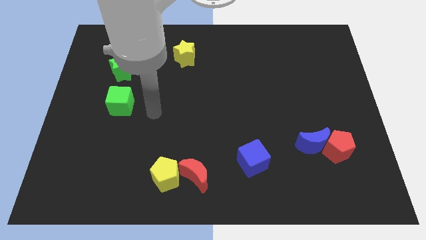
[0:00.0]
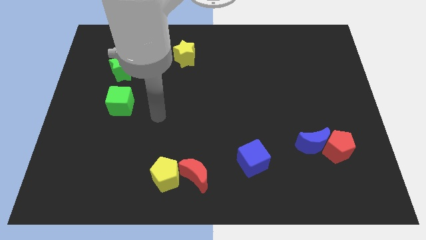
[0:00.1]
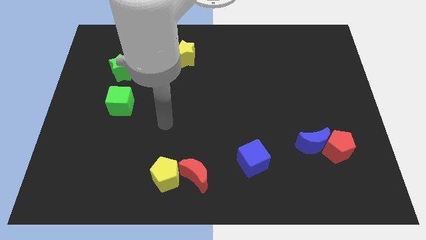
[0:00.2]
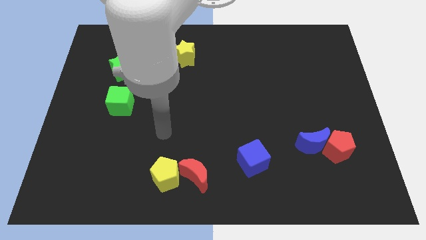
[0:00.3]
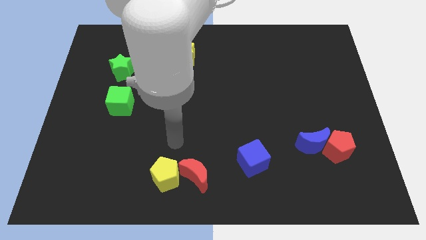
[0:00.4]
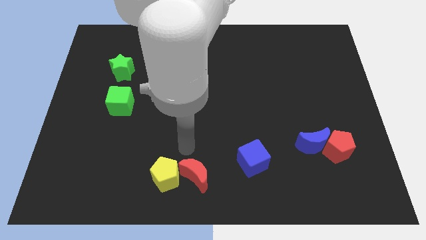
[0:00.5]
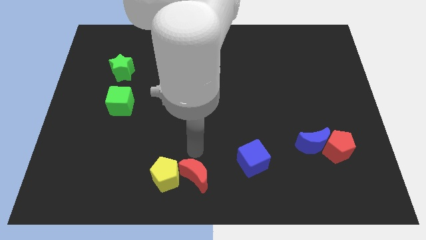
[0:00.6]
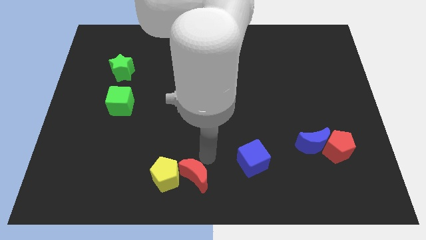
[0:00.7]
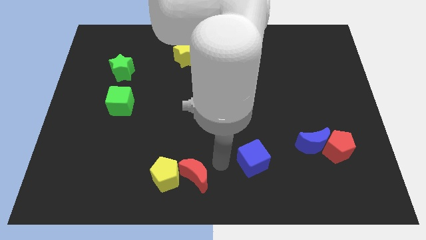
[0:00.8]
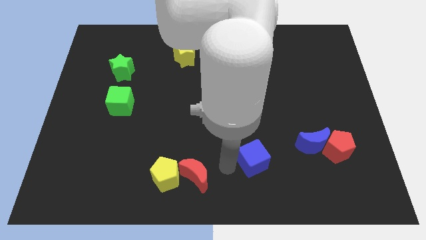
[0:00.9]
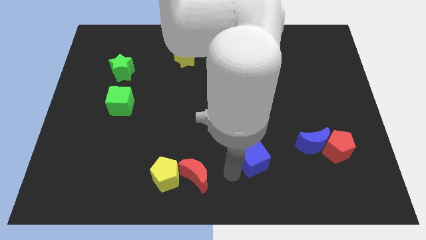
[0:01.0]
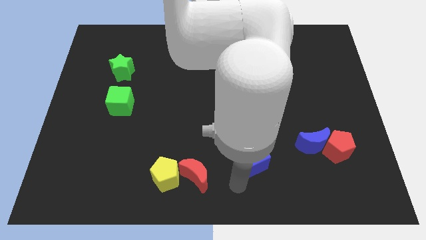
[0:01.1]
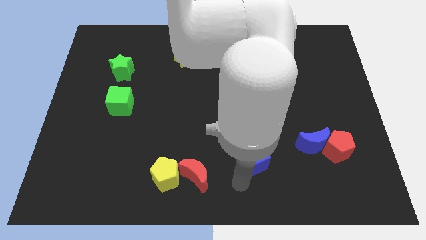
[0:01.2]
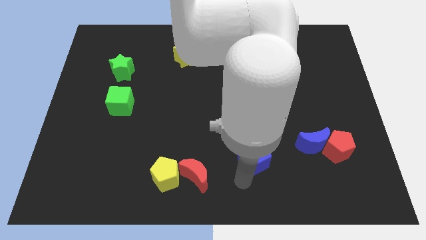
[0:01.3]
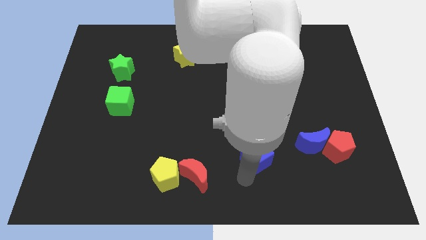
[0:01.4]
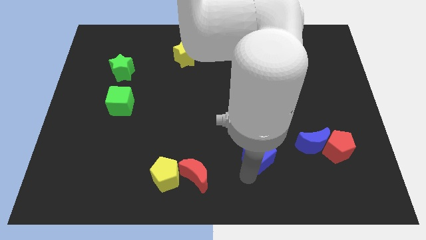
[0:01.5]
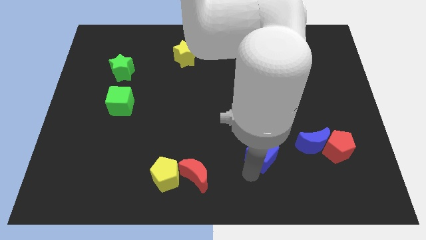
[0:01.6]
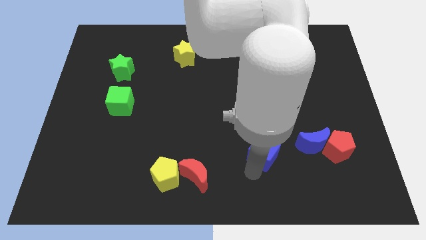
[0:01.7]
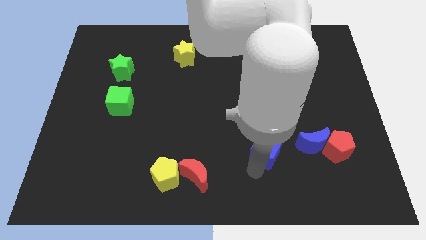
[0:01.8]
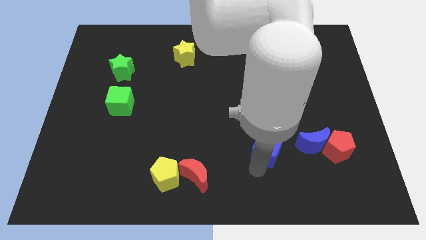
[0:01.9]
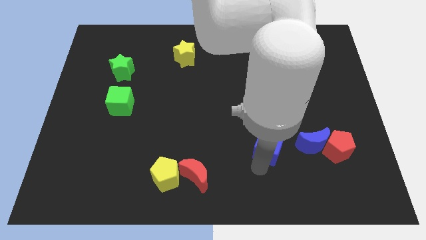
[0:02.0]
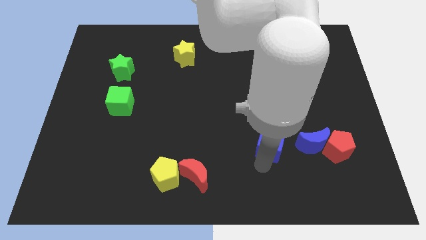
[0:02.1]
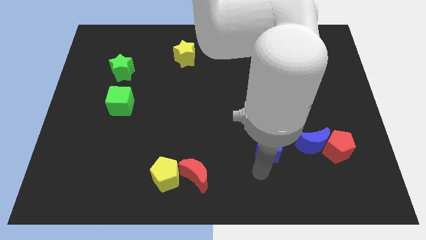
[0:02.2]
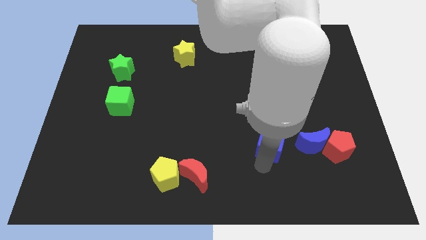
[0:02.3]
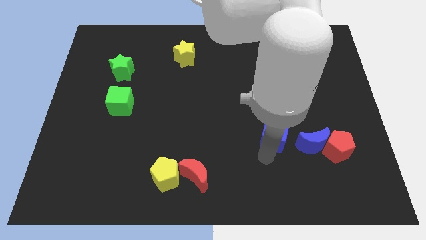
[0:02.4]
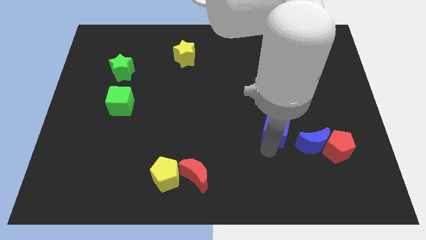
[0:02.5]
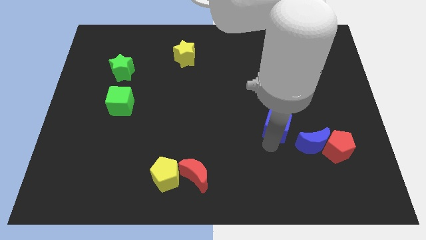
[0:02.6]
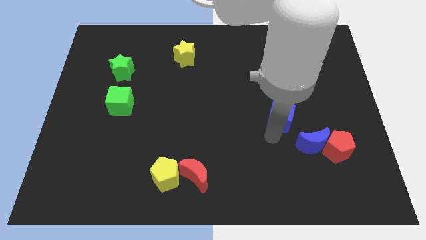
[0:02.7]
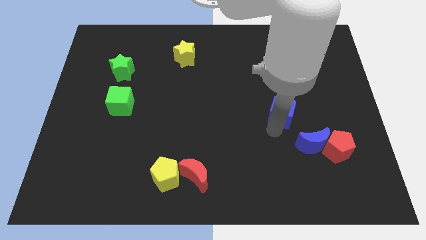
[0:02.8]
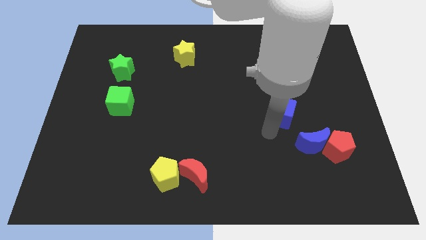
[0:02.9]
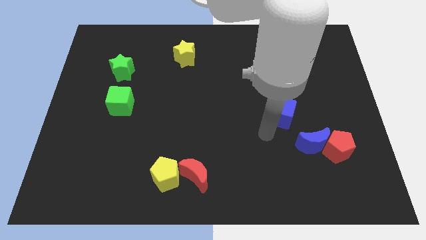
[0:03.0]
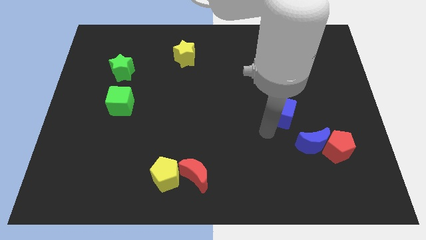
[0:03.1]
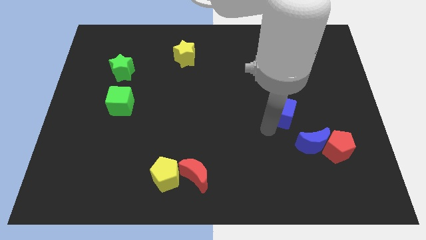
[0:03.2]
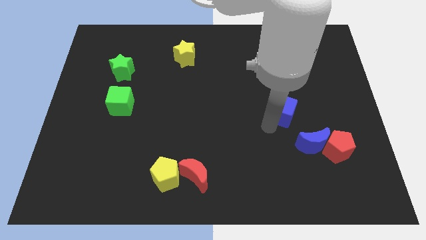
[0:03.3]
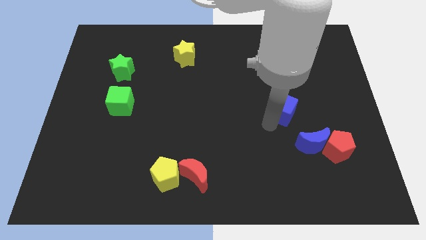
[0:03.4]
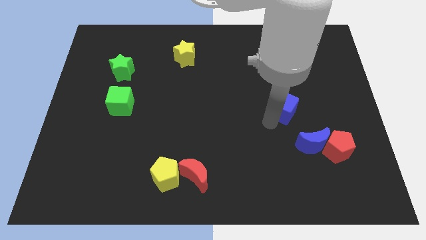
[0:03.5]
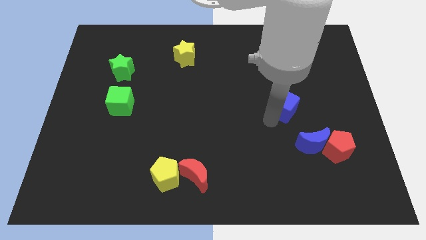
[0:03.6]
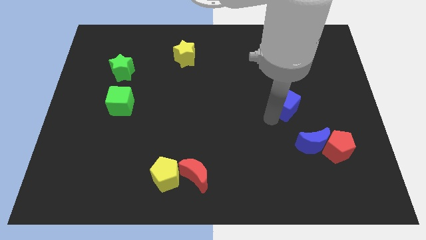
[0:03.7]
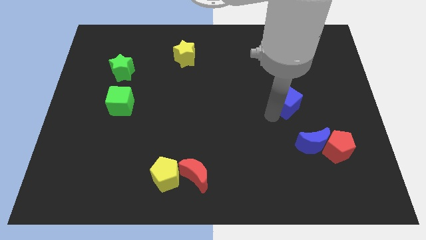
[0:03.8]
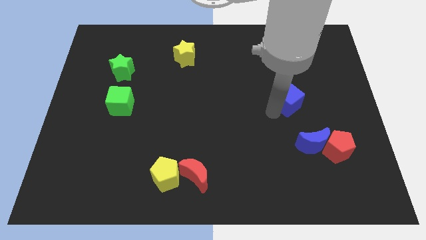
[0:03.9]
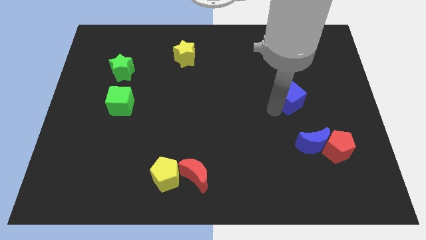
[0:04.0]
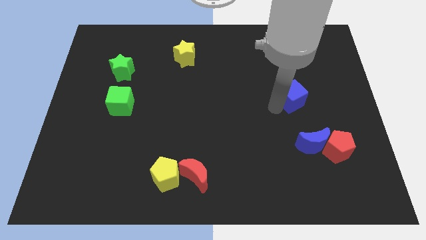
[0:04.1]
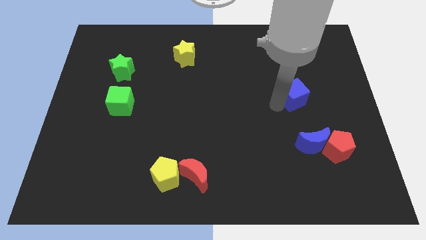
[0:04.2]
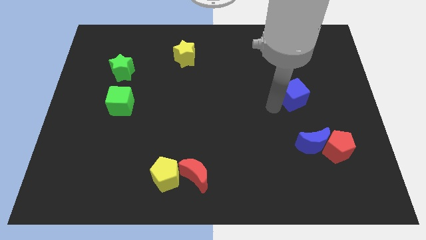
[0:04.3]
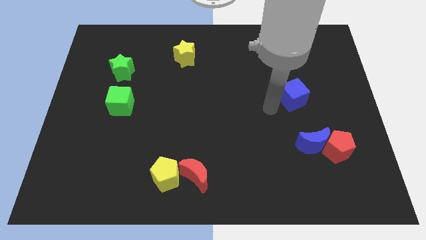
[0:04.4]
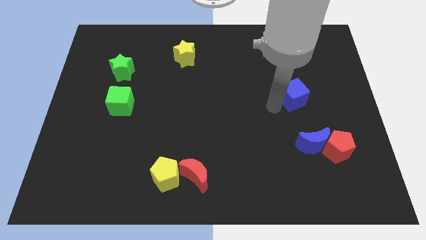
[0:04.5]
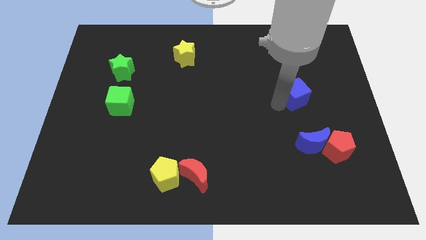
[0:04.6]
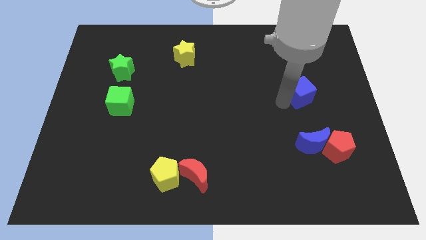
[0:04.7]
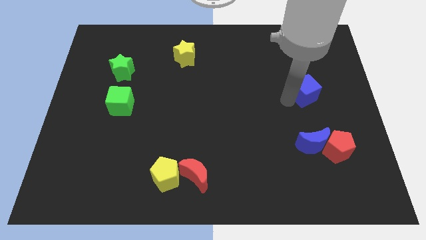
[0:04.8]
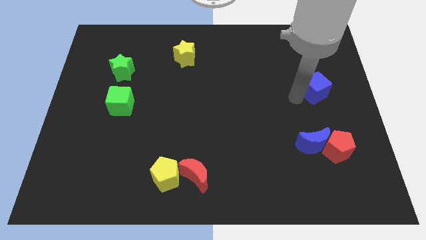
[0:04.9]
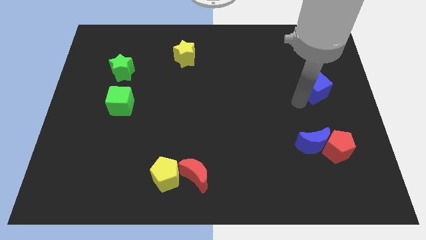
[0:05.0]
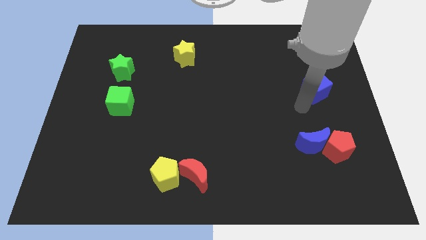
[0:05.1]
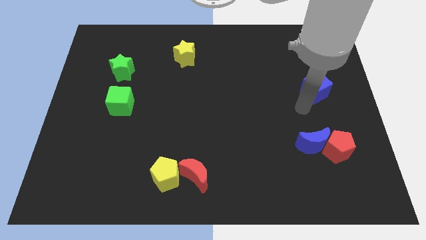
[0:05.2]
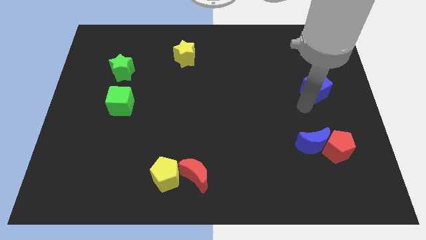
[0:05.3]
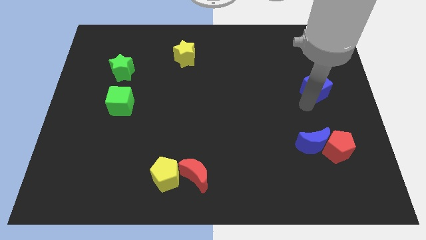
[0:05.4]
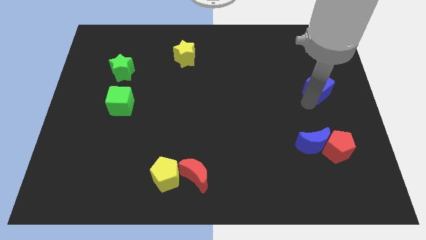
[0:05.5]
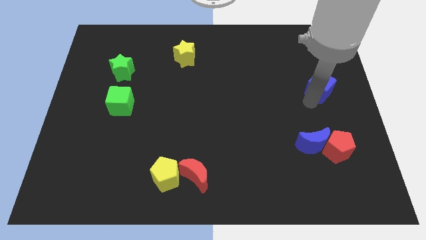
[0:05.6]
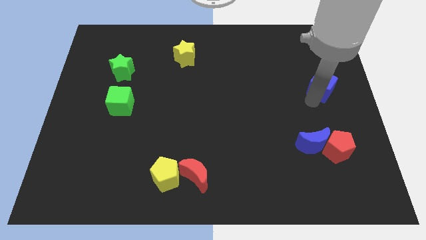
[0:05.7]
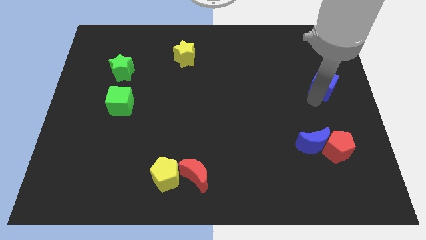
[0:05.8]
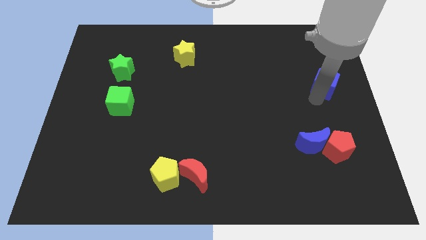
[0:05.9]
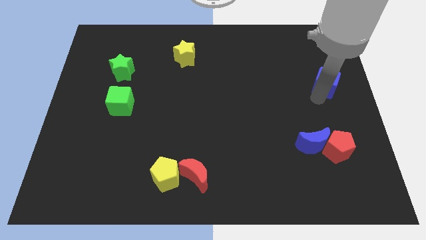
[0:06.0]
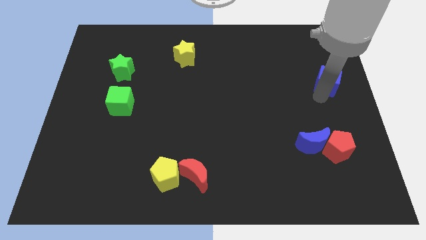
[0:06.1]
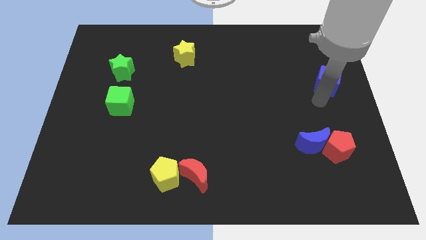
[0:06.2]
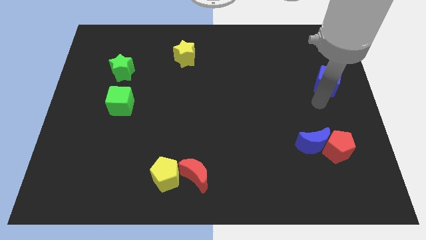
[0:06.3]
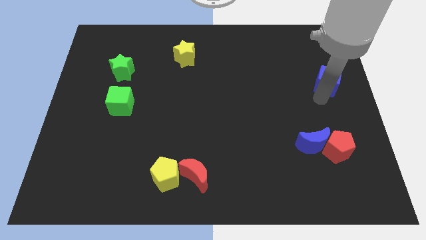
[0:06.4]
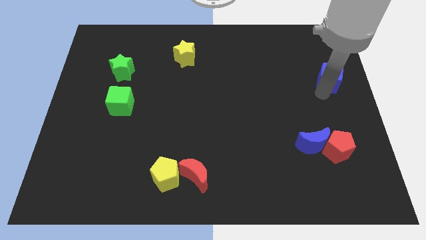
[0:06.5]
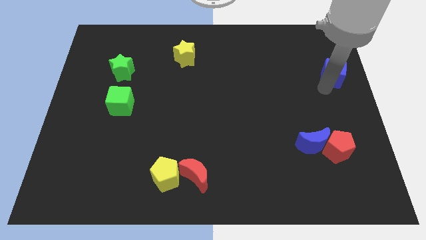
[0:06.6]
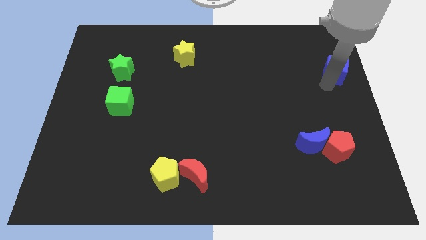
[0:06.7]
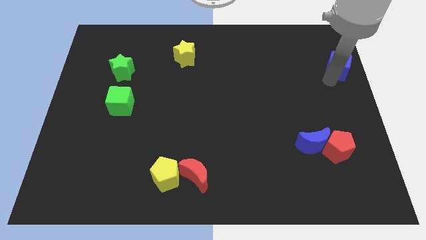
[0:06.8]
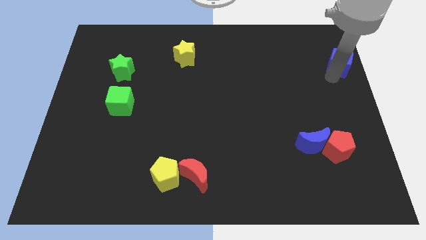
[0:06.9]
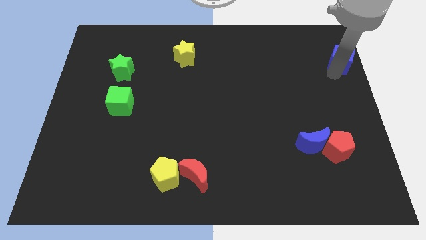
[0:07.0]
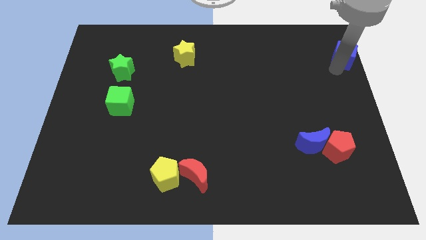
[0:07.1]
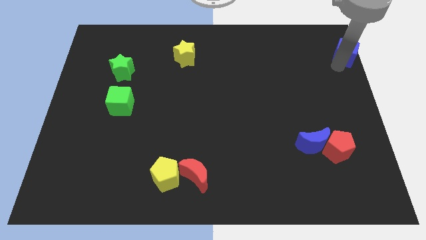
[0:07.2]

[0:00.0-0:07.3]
slide the blue cube to the top right of the board
